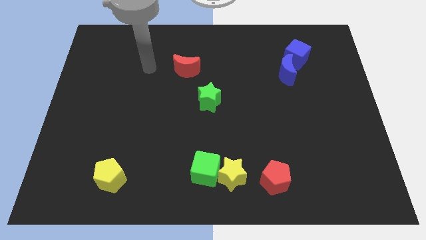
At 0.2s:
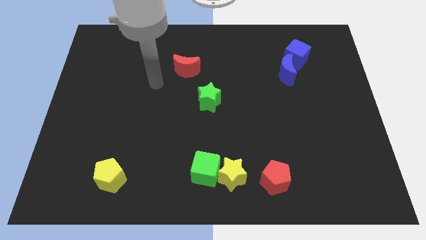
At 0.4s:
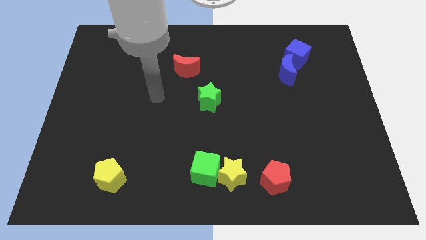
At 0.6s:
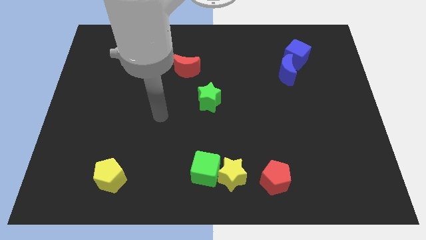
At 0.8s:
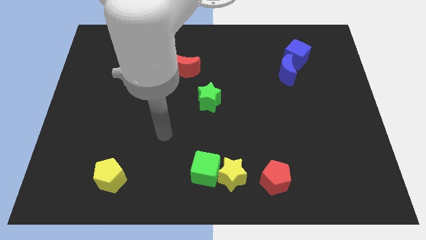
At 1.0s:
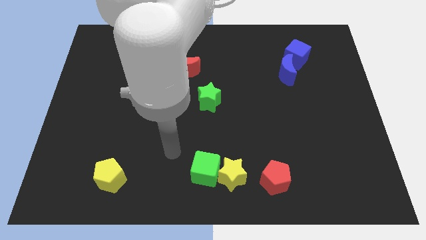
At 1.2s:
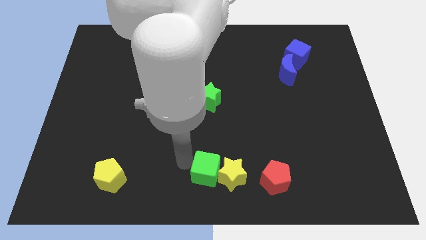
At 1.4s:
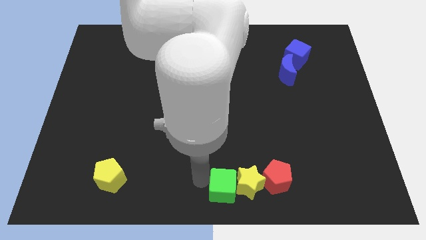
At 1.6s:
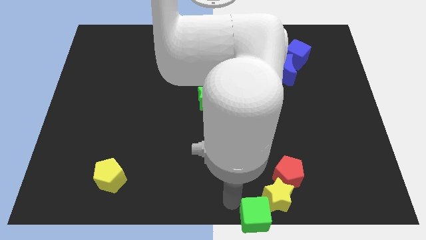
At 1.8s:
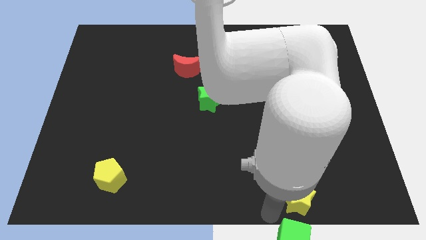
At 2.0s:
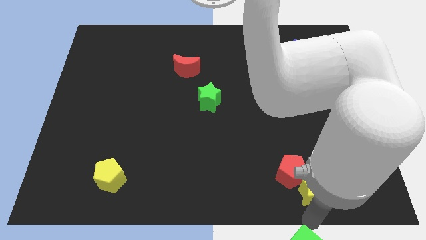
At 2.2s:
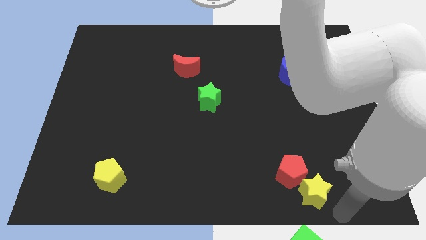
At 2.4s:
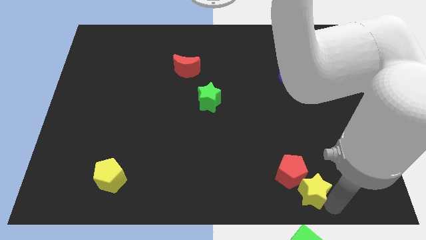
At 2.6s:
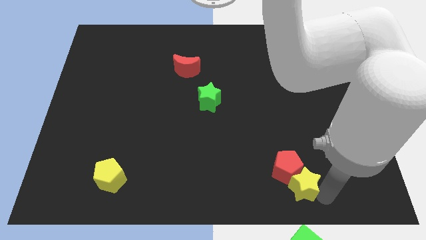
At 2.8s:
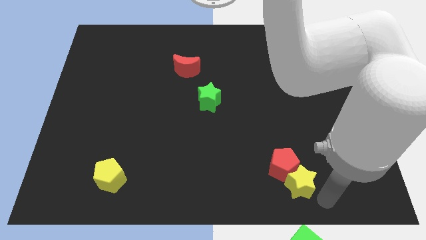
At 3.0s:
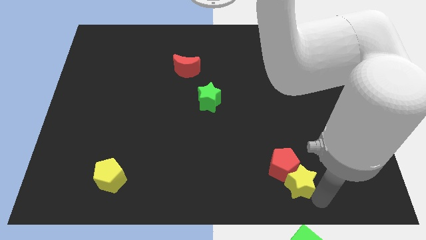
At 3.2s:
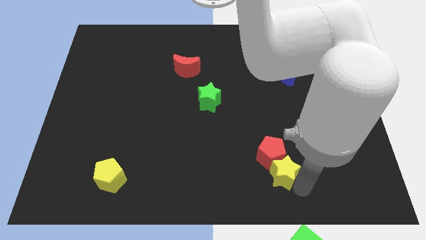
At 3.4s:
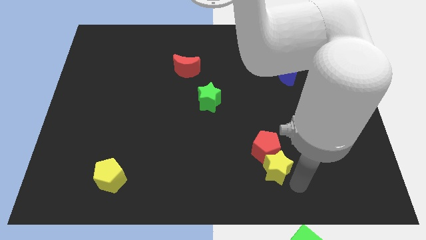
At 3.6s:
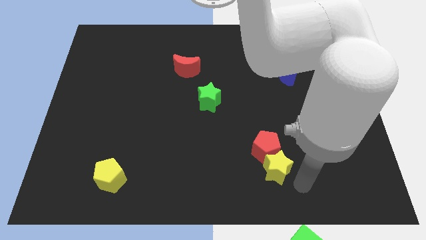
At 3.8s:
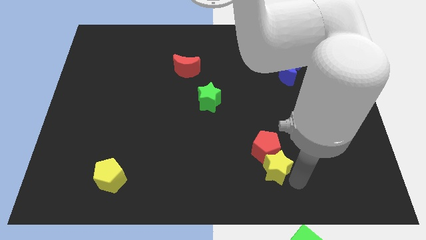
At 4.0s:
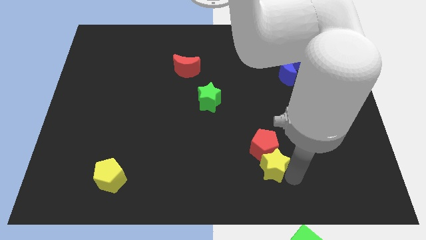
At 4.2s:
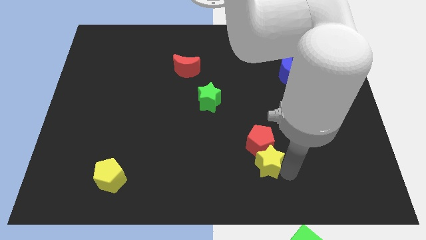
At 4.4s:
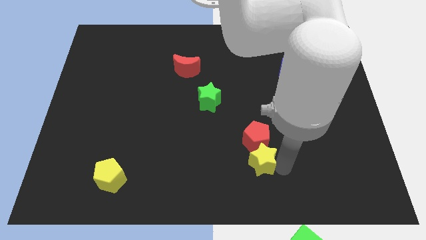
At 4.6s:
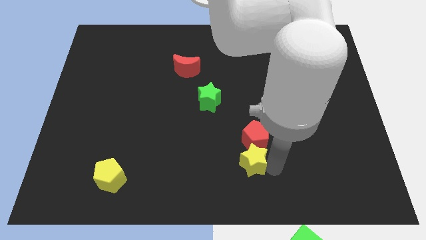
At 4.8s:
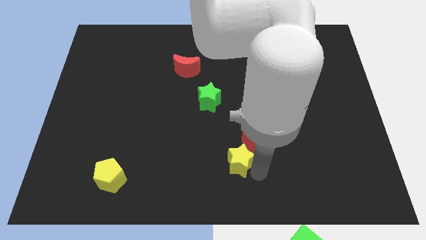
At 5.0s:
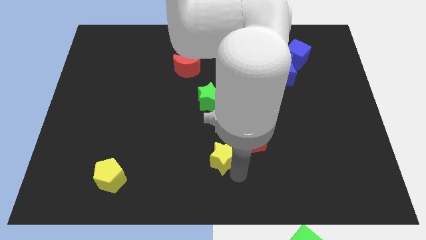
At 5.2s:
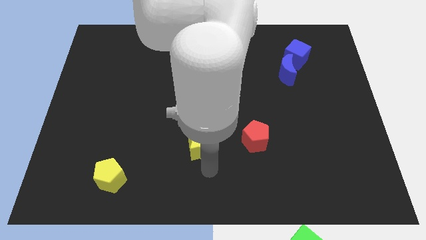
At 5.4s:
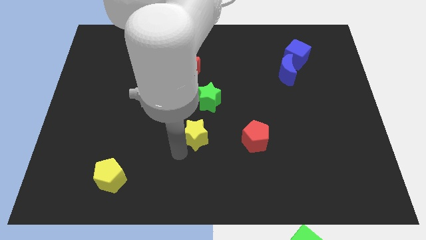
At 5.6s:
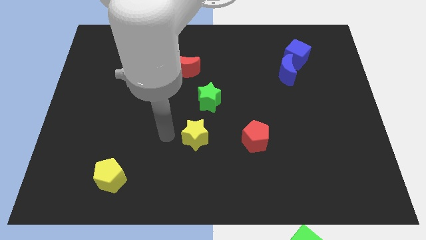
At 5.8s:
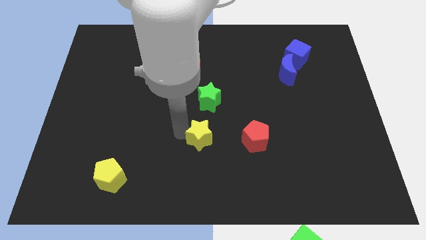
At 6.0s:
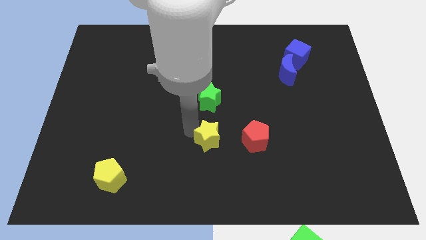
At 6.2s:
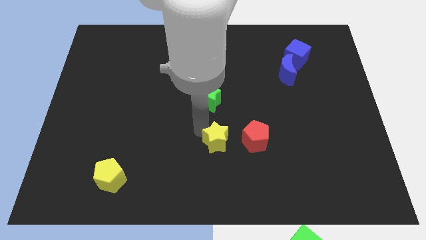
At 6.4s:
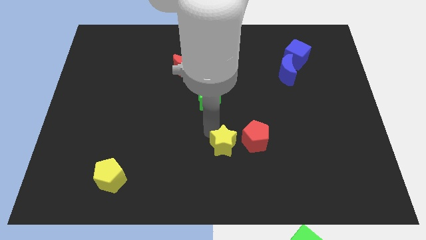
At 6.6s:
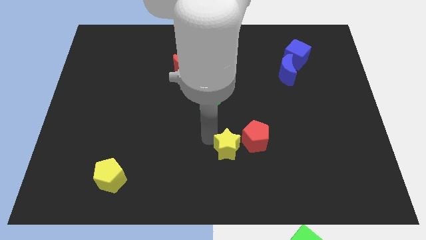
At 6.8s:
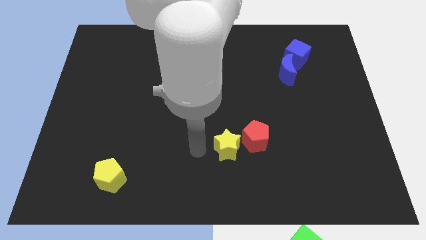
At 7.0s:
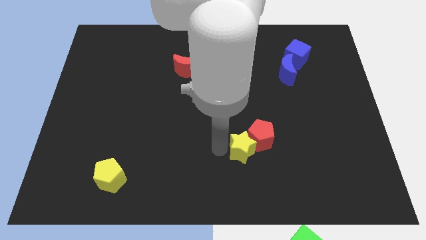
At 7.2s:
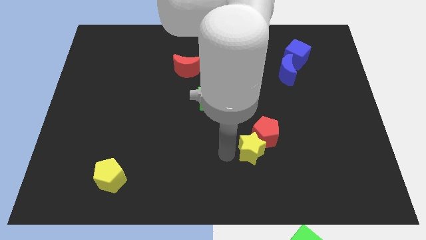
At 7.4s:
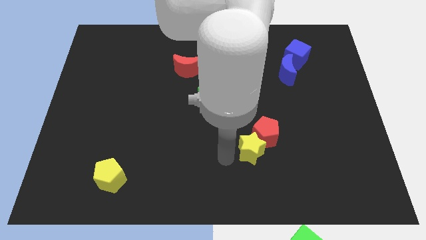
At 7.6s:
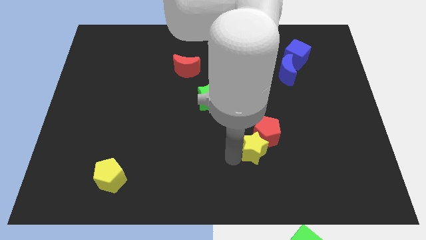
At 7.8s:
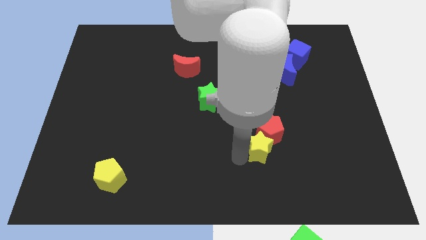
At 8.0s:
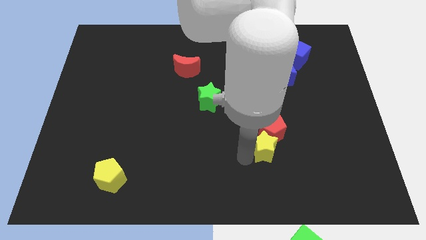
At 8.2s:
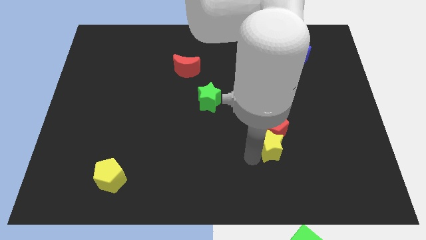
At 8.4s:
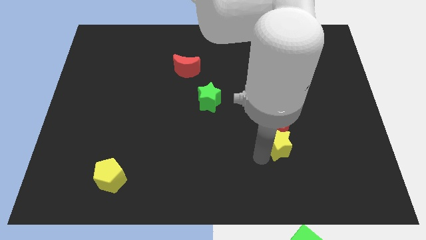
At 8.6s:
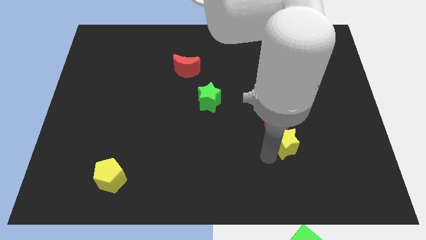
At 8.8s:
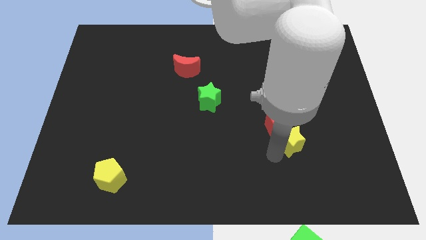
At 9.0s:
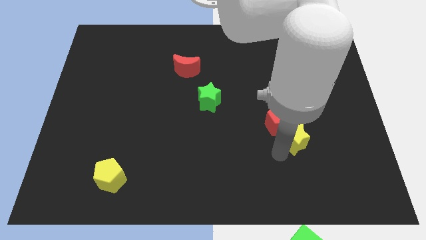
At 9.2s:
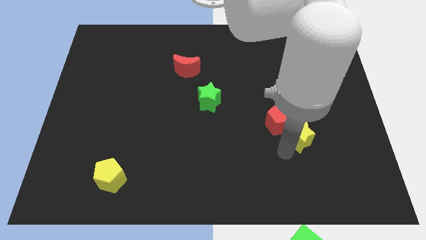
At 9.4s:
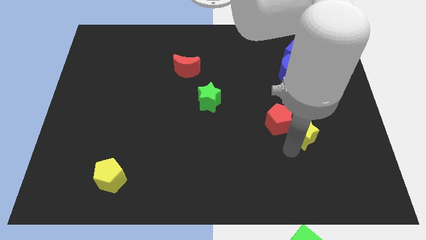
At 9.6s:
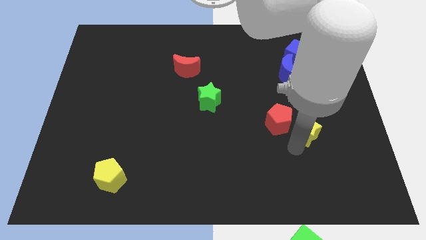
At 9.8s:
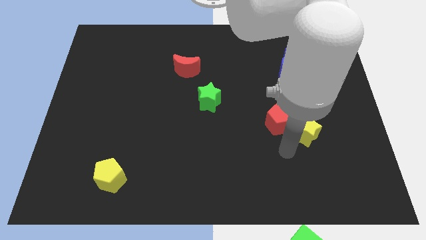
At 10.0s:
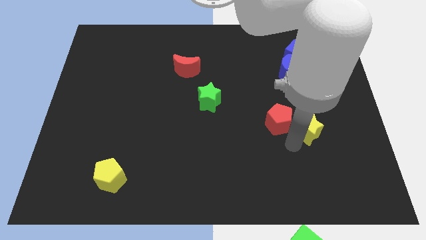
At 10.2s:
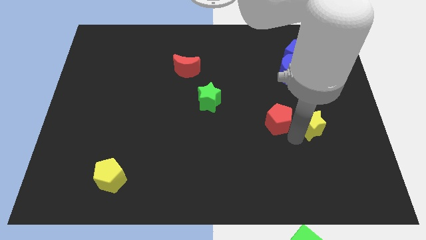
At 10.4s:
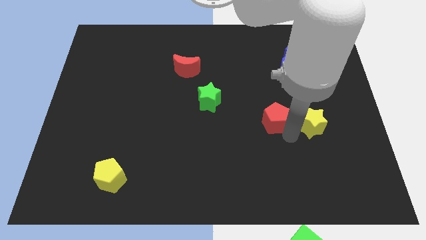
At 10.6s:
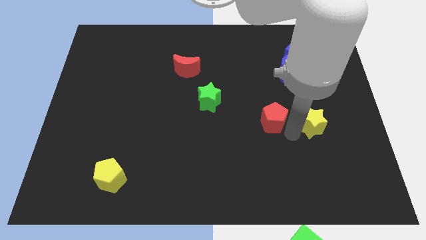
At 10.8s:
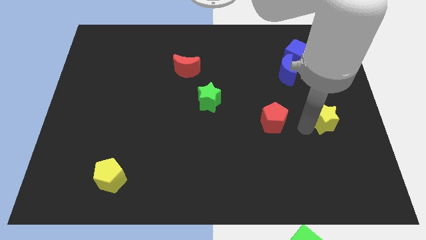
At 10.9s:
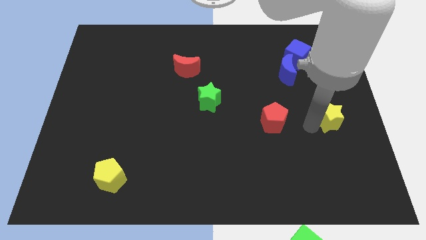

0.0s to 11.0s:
push the yellow star to the center right

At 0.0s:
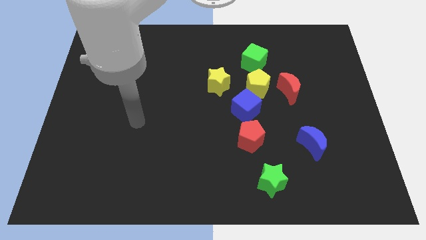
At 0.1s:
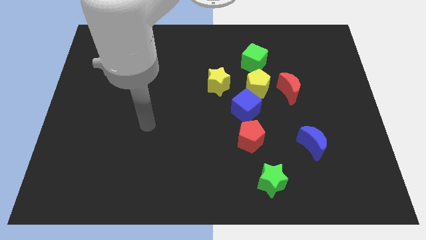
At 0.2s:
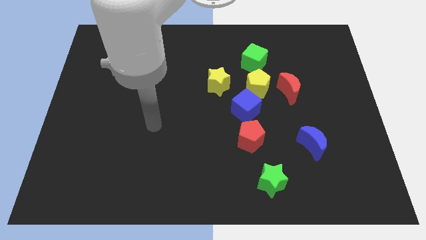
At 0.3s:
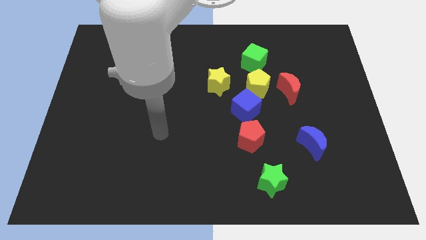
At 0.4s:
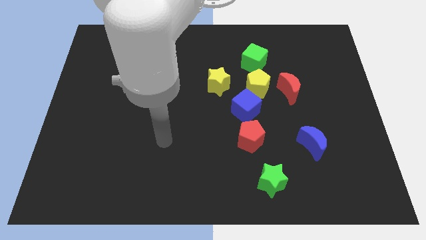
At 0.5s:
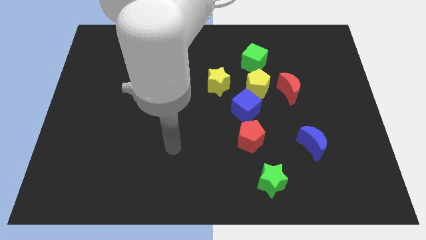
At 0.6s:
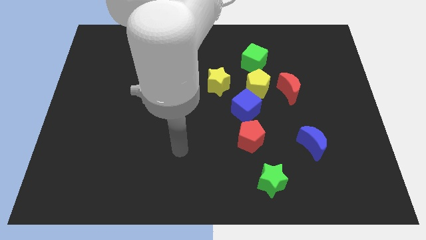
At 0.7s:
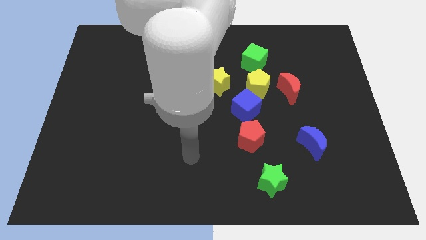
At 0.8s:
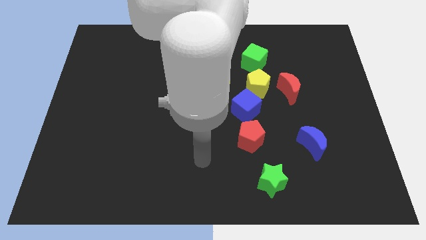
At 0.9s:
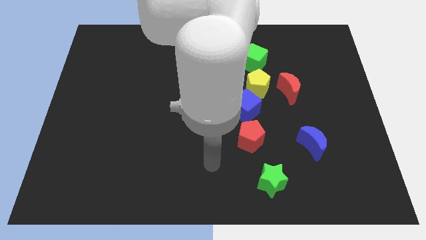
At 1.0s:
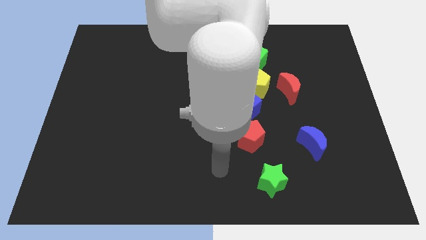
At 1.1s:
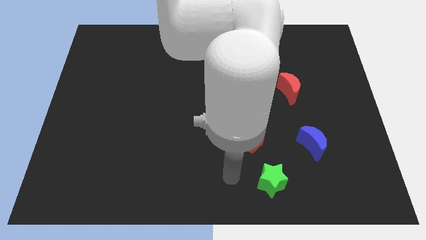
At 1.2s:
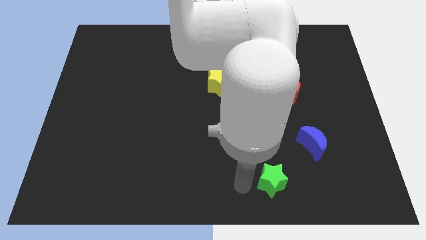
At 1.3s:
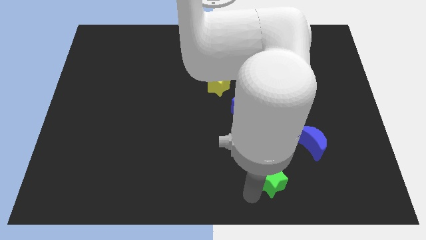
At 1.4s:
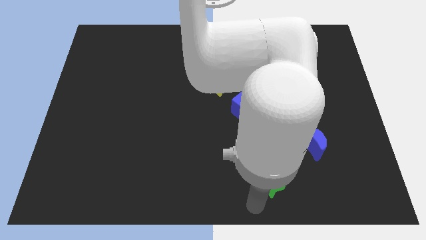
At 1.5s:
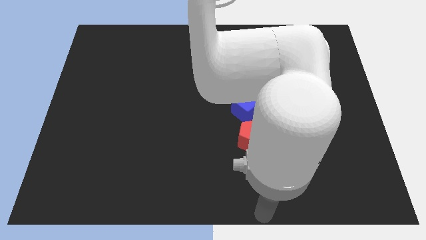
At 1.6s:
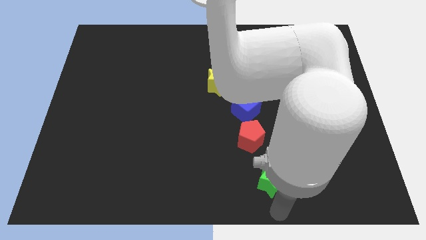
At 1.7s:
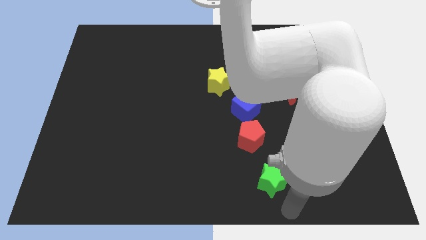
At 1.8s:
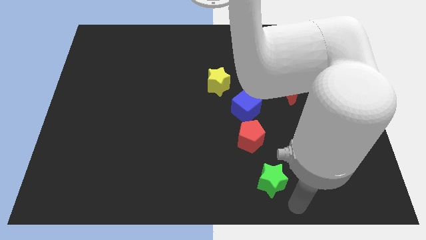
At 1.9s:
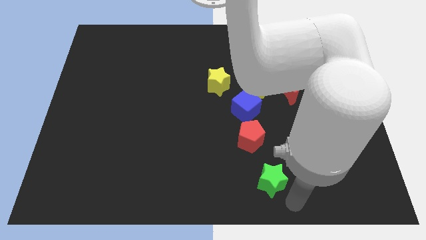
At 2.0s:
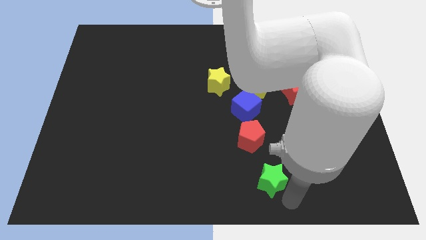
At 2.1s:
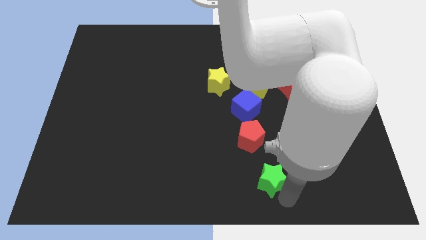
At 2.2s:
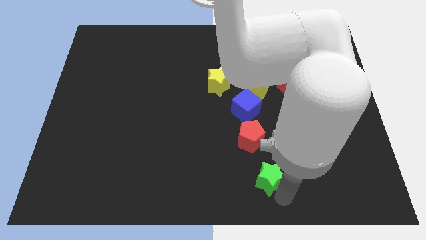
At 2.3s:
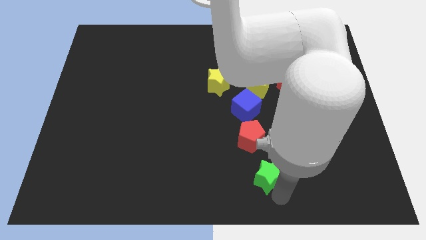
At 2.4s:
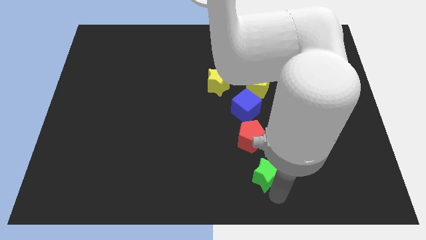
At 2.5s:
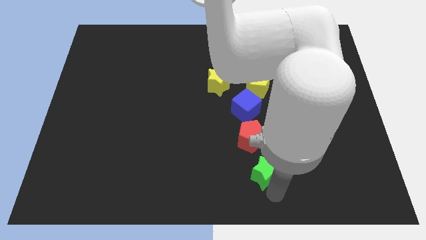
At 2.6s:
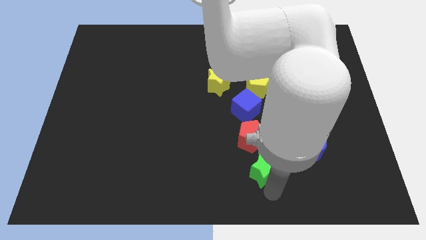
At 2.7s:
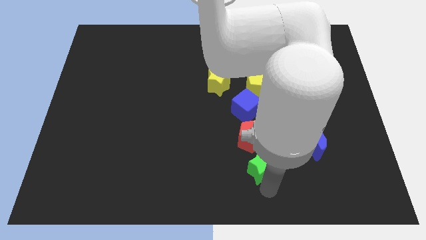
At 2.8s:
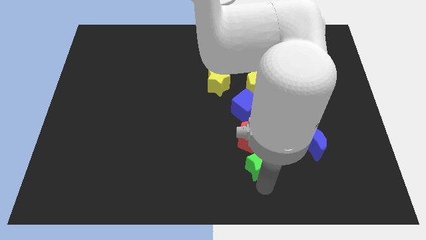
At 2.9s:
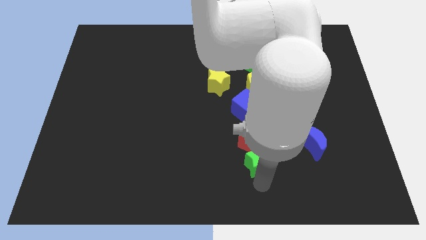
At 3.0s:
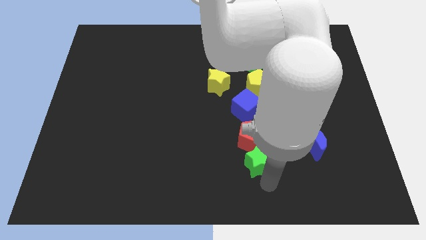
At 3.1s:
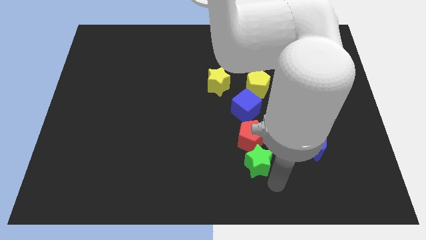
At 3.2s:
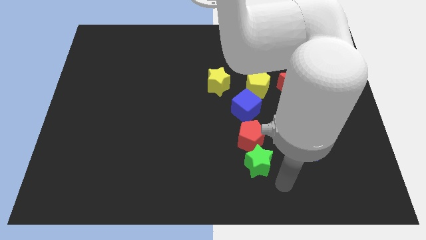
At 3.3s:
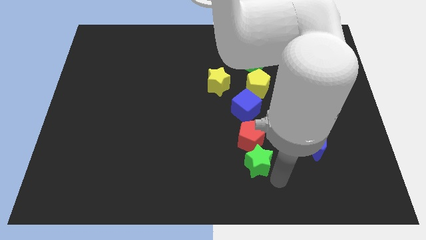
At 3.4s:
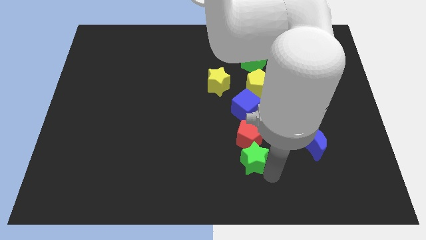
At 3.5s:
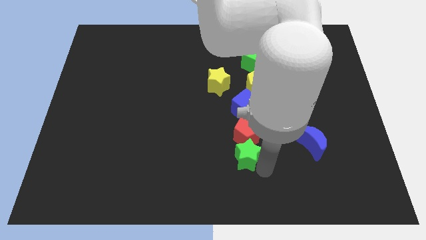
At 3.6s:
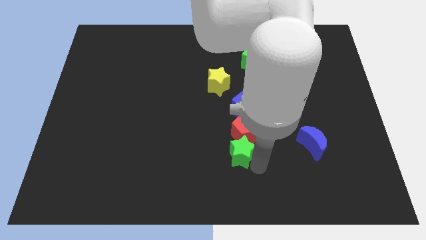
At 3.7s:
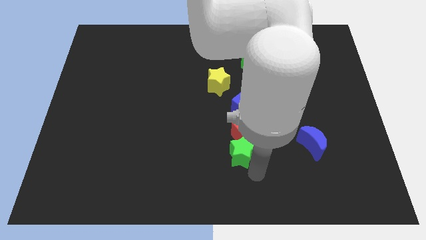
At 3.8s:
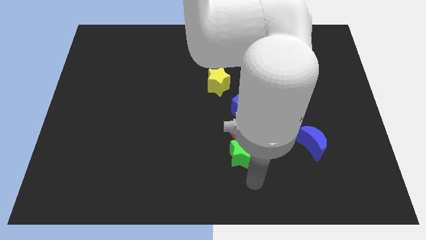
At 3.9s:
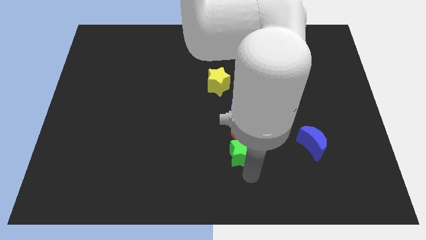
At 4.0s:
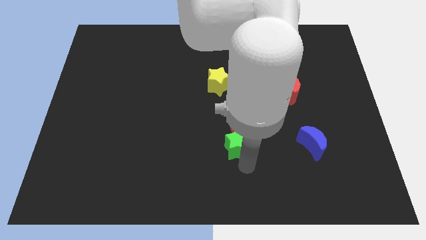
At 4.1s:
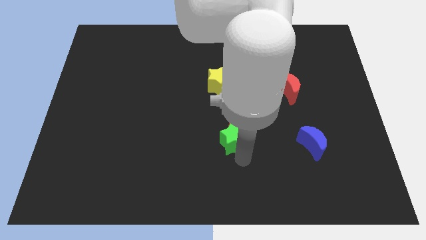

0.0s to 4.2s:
slide the green star to the center of the board
